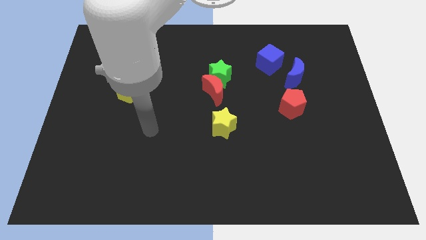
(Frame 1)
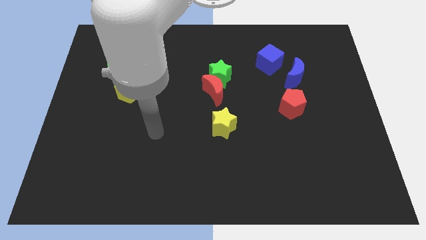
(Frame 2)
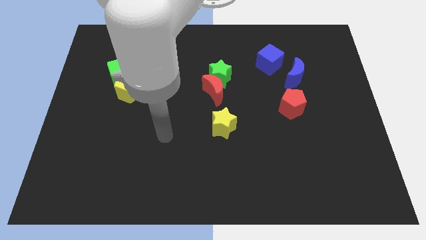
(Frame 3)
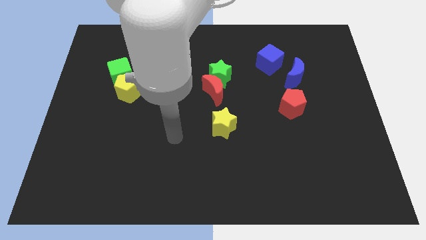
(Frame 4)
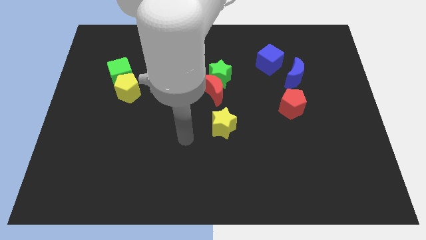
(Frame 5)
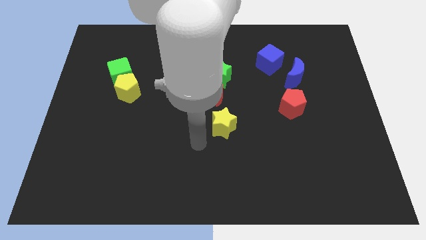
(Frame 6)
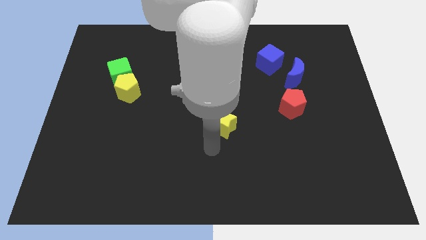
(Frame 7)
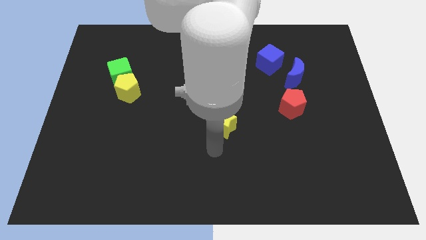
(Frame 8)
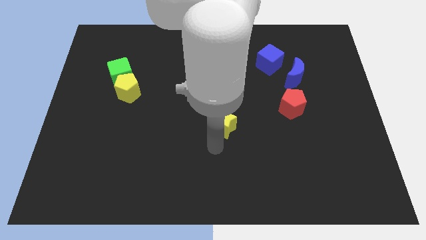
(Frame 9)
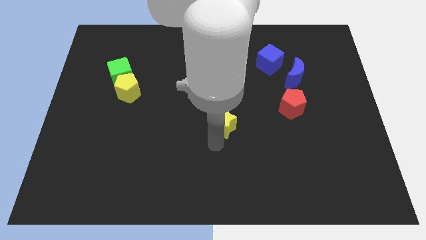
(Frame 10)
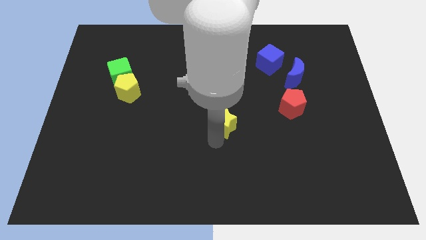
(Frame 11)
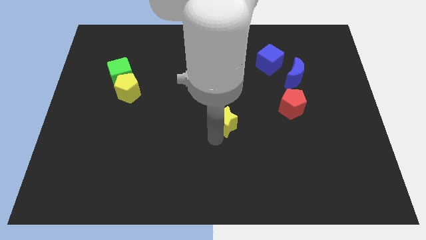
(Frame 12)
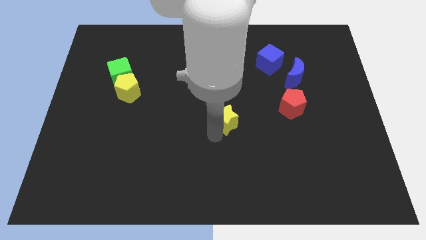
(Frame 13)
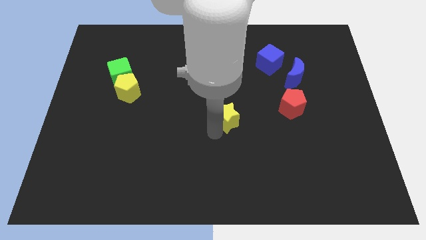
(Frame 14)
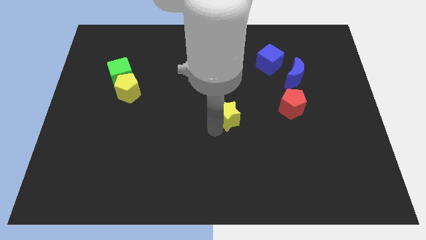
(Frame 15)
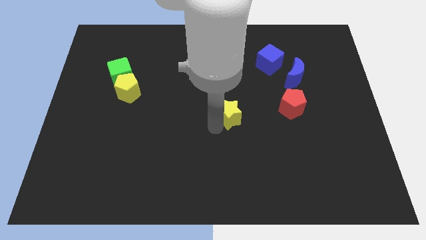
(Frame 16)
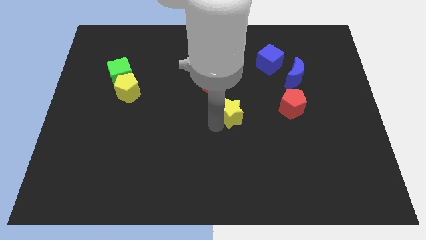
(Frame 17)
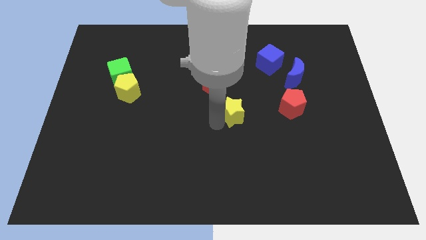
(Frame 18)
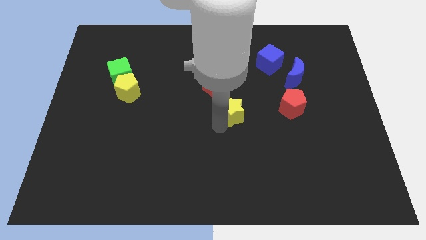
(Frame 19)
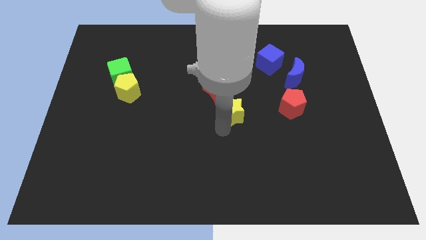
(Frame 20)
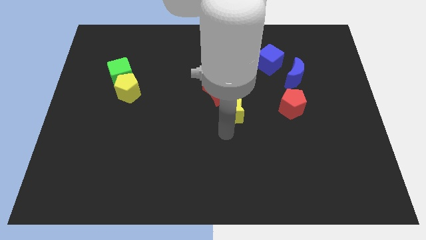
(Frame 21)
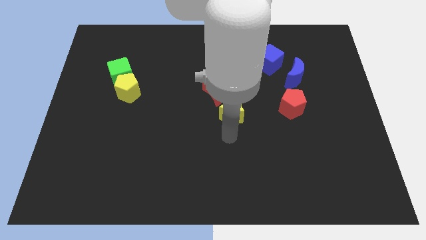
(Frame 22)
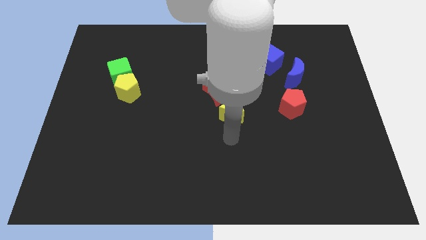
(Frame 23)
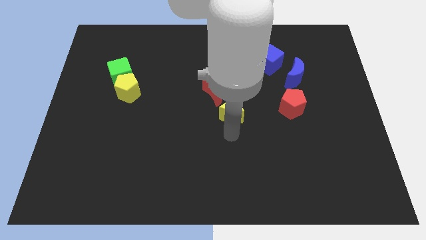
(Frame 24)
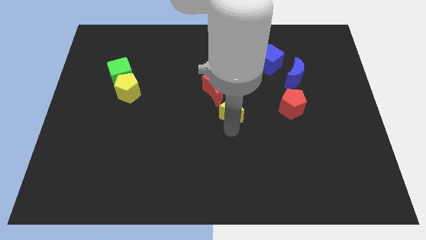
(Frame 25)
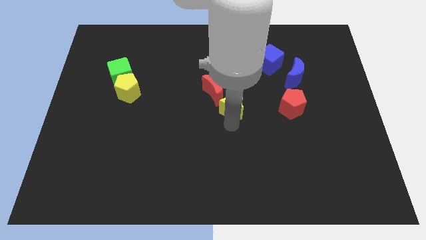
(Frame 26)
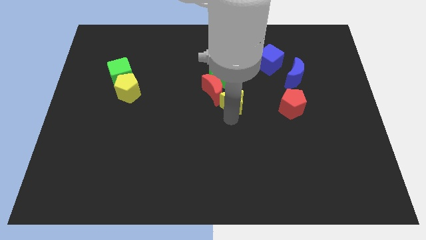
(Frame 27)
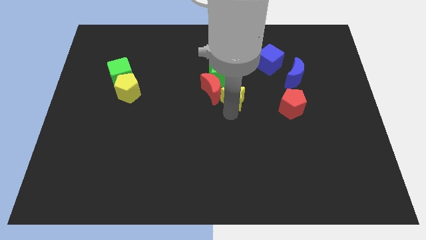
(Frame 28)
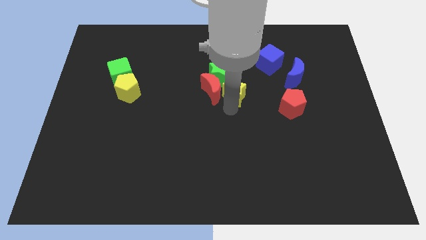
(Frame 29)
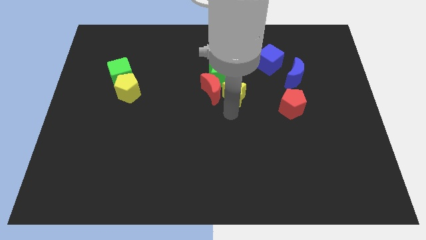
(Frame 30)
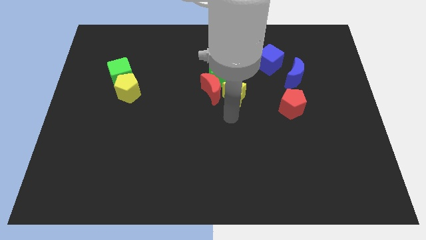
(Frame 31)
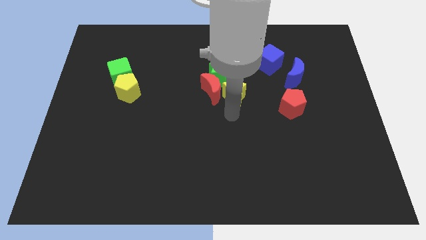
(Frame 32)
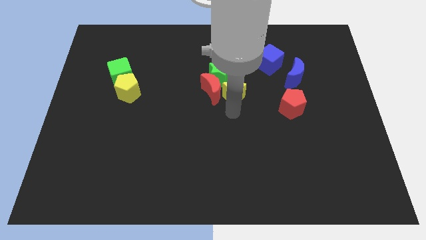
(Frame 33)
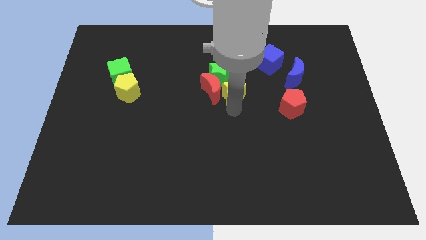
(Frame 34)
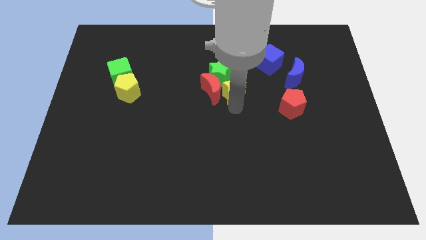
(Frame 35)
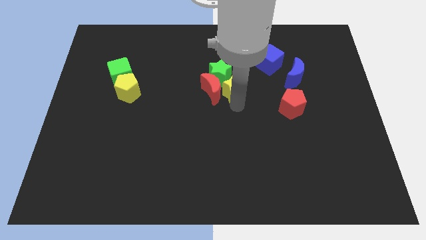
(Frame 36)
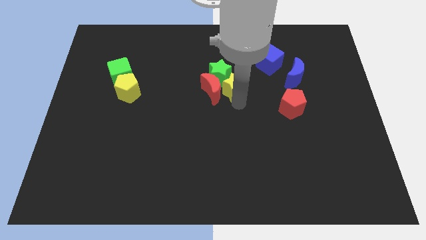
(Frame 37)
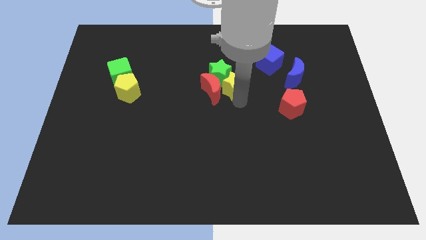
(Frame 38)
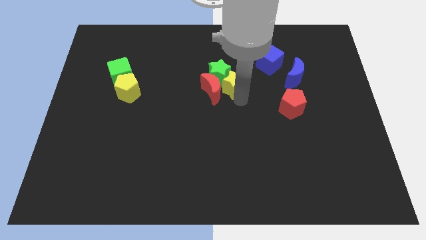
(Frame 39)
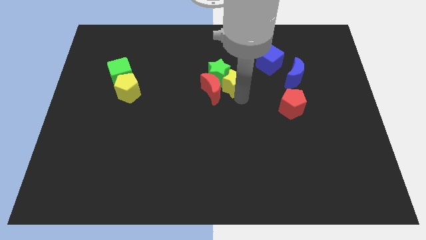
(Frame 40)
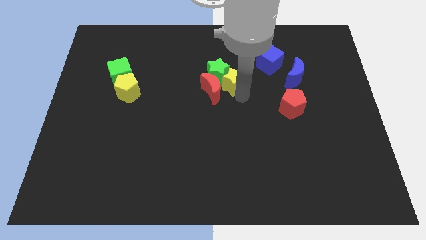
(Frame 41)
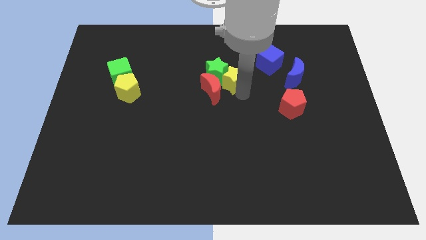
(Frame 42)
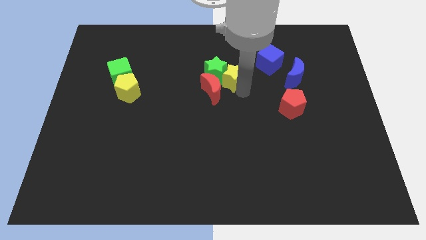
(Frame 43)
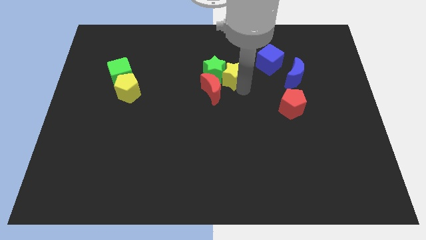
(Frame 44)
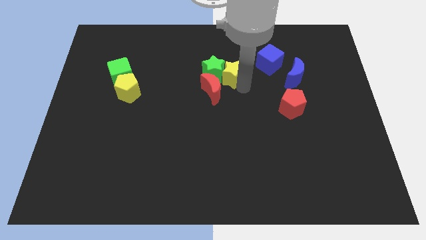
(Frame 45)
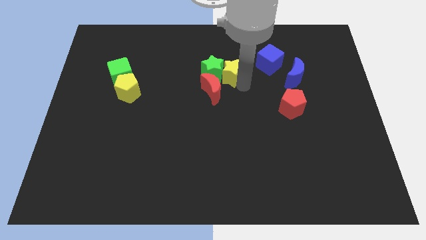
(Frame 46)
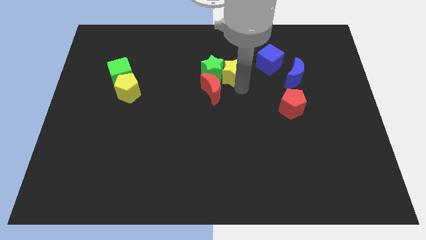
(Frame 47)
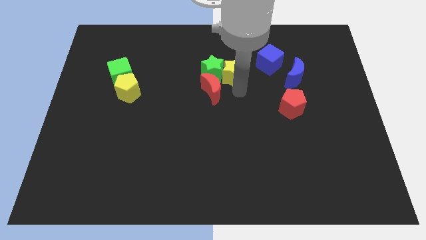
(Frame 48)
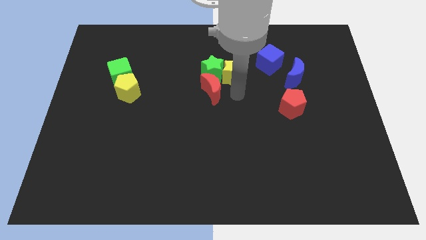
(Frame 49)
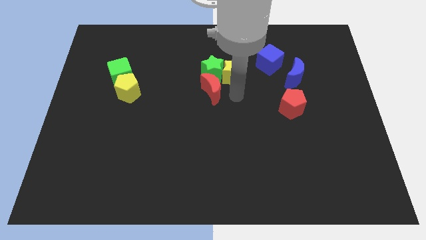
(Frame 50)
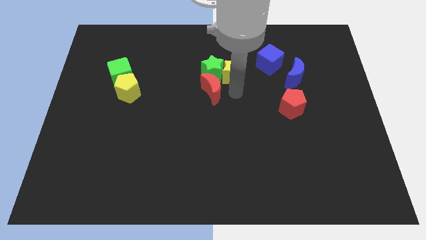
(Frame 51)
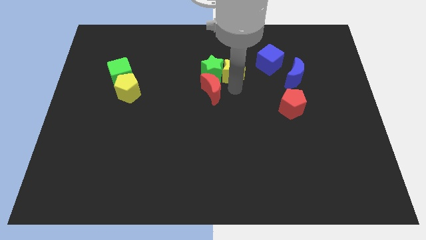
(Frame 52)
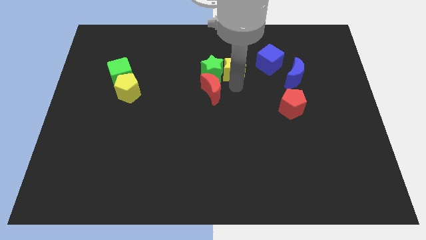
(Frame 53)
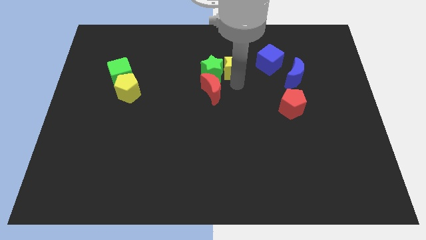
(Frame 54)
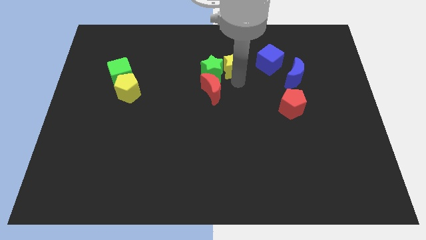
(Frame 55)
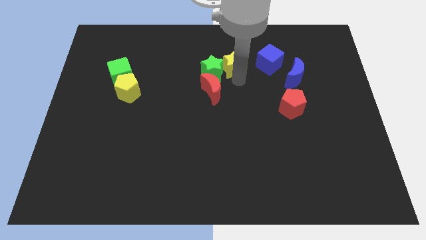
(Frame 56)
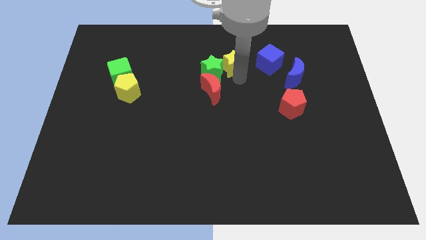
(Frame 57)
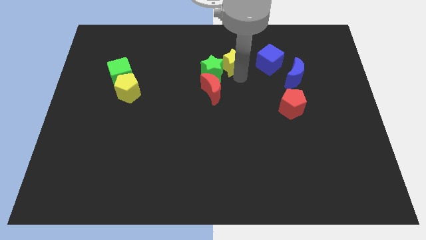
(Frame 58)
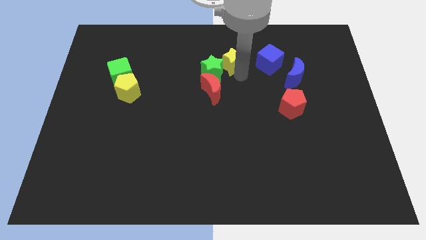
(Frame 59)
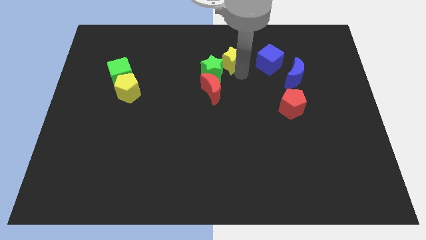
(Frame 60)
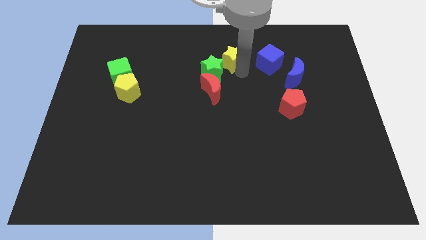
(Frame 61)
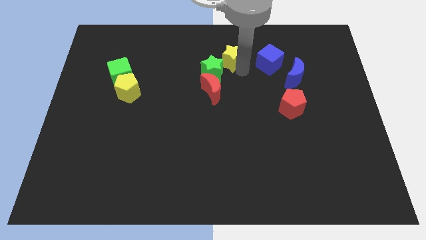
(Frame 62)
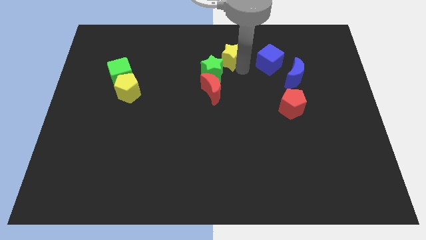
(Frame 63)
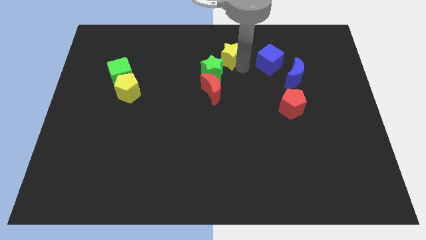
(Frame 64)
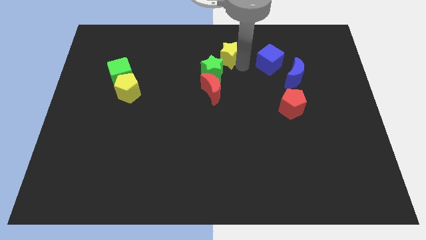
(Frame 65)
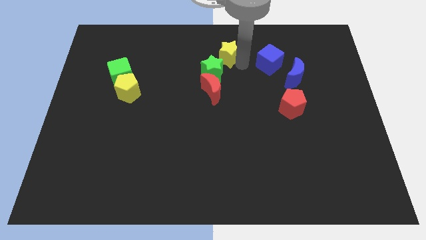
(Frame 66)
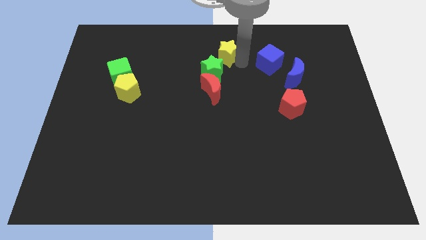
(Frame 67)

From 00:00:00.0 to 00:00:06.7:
push the yellow star to the top
